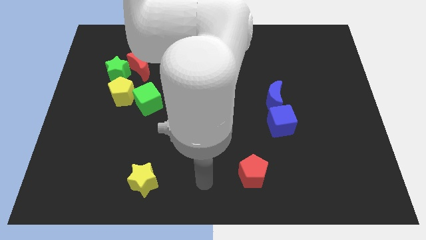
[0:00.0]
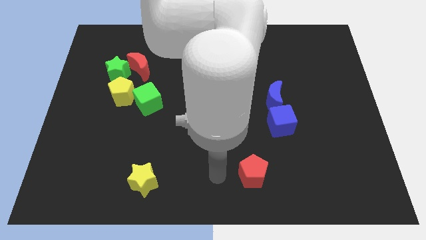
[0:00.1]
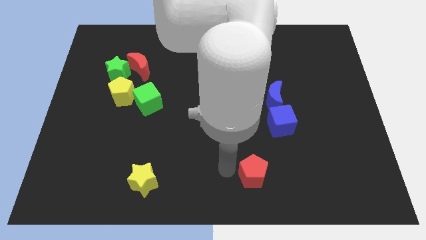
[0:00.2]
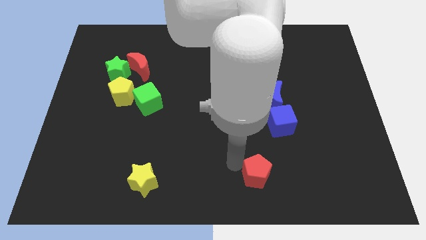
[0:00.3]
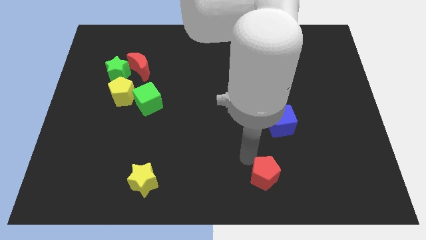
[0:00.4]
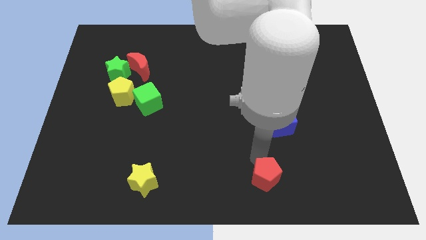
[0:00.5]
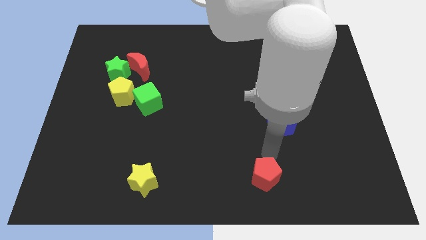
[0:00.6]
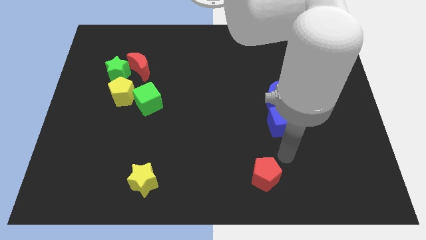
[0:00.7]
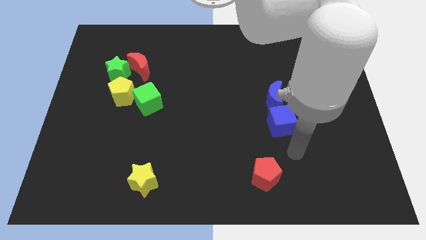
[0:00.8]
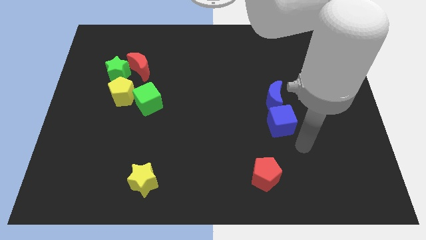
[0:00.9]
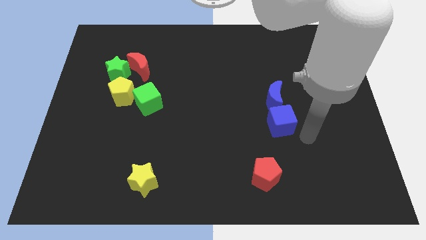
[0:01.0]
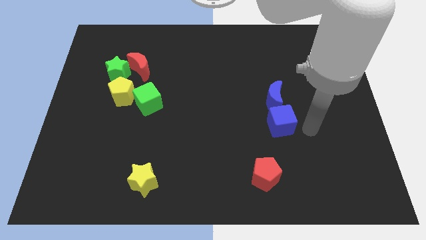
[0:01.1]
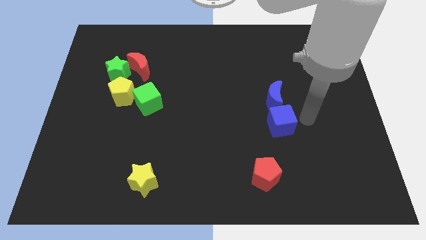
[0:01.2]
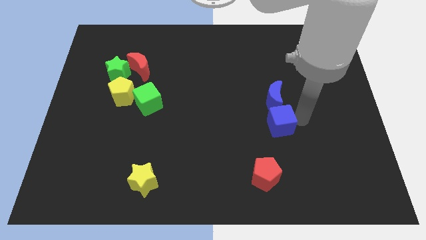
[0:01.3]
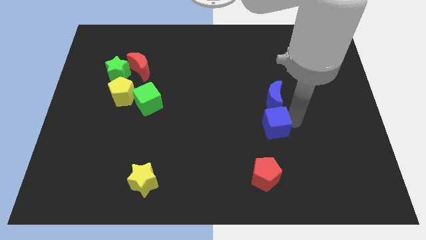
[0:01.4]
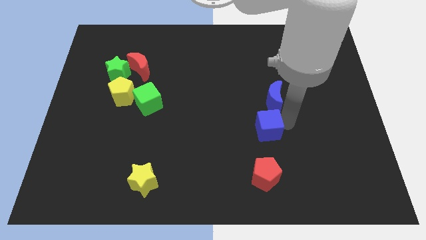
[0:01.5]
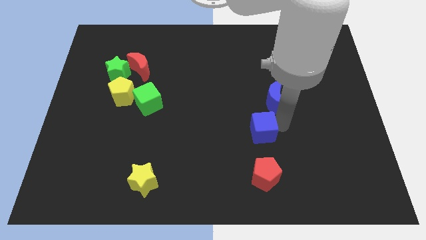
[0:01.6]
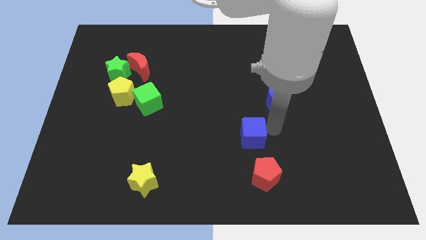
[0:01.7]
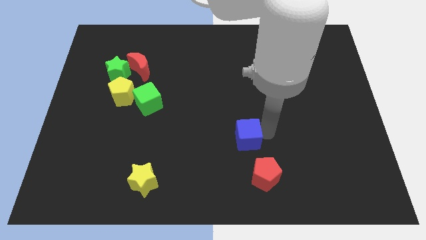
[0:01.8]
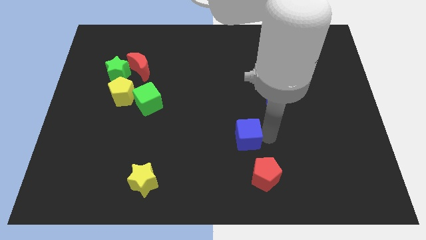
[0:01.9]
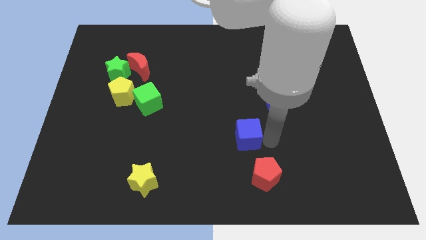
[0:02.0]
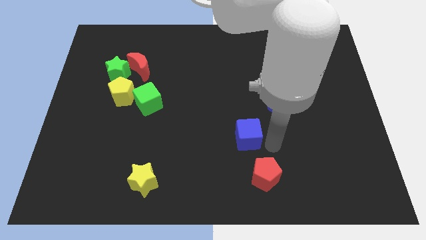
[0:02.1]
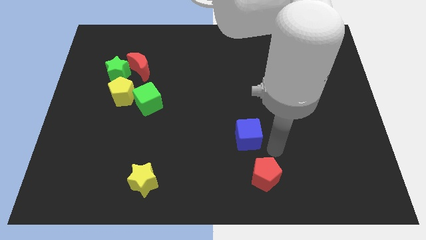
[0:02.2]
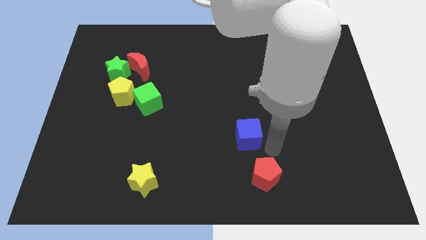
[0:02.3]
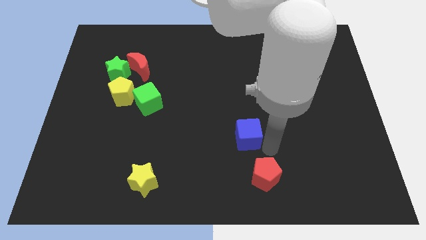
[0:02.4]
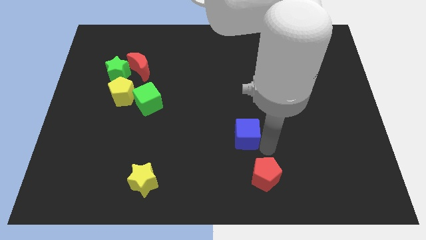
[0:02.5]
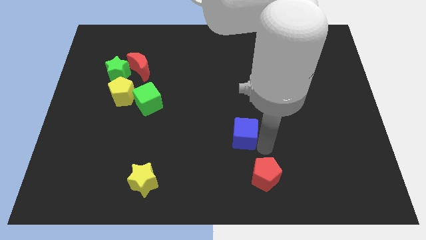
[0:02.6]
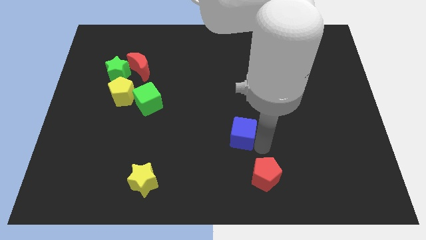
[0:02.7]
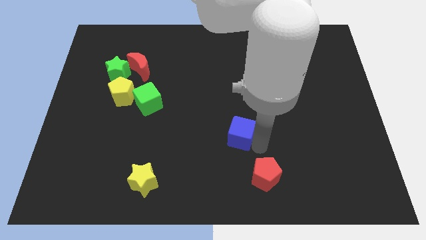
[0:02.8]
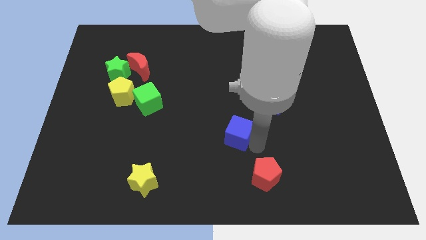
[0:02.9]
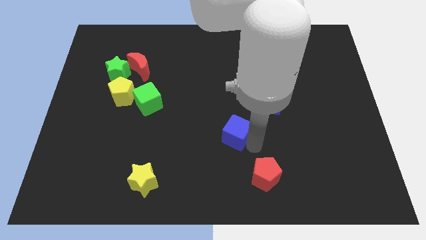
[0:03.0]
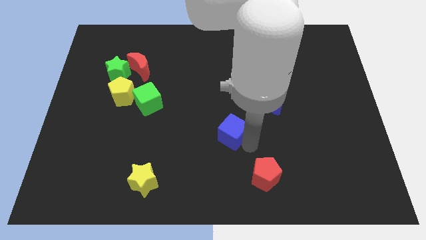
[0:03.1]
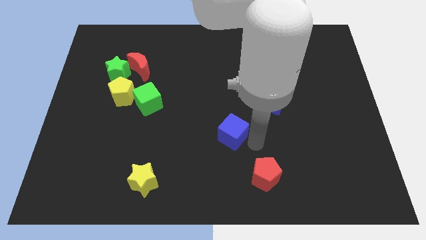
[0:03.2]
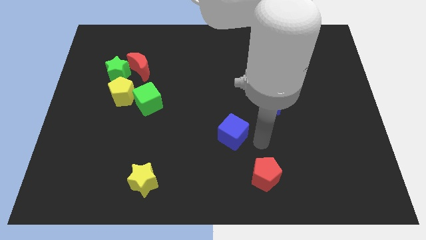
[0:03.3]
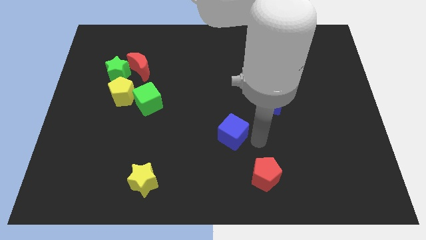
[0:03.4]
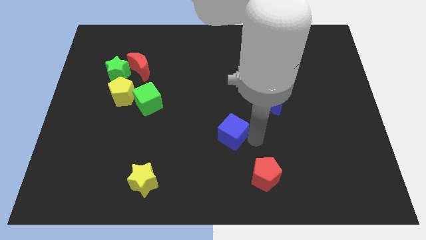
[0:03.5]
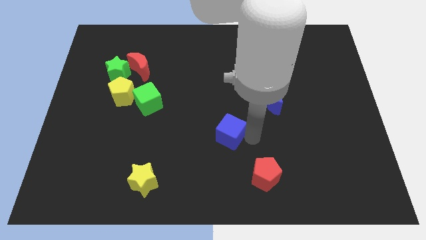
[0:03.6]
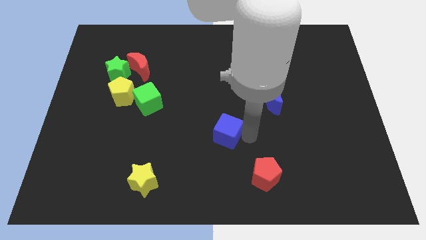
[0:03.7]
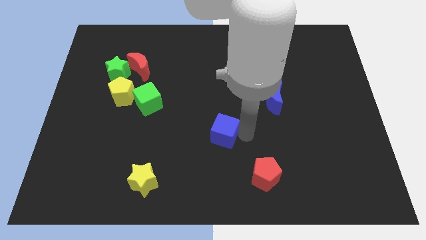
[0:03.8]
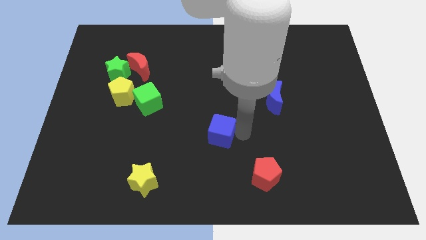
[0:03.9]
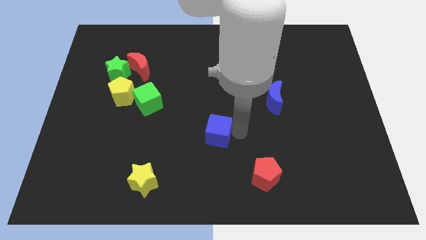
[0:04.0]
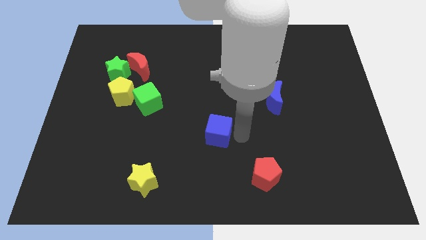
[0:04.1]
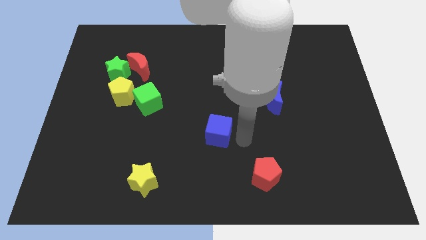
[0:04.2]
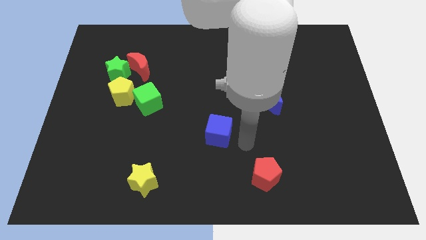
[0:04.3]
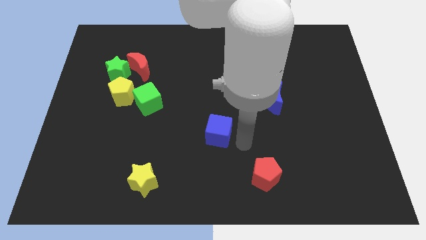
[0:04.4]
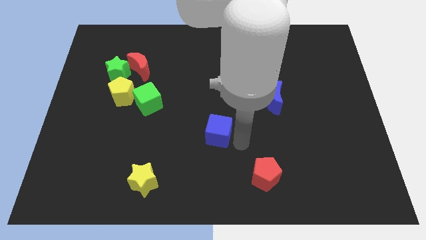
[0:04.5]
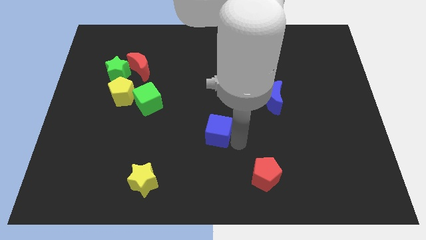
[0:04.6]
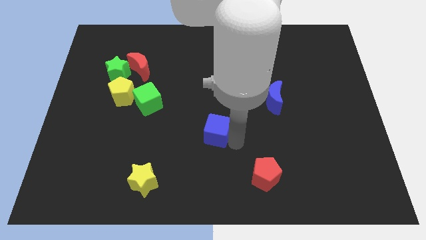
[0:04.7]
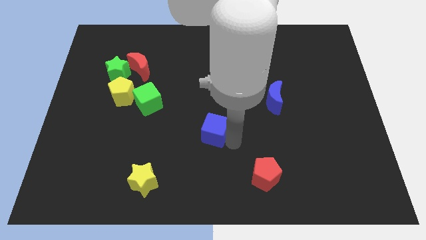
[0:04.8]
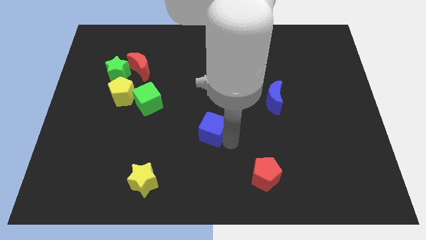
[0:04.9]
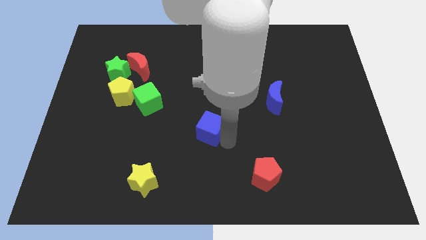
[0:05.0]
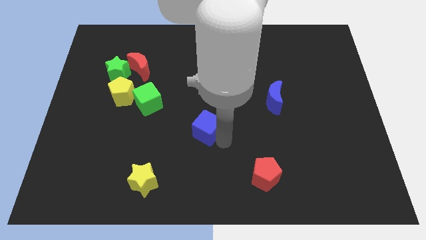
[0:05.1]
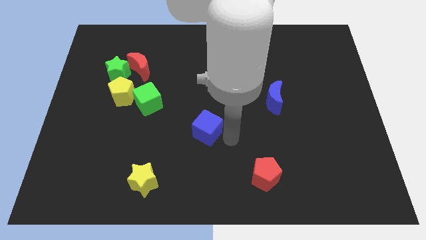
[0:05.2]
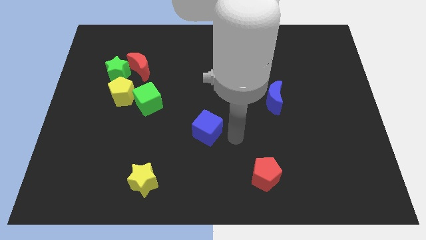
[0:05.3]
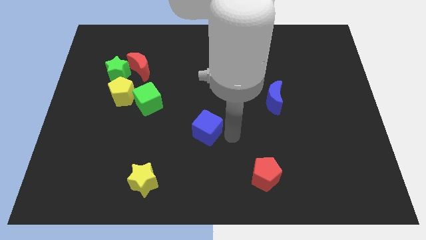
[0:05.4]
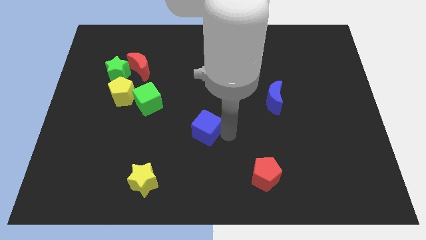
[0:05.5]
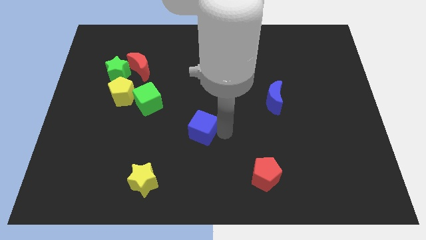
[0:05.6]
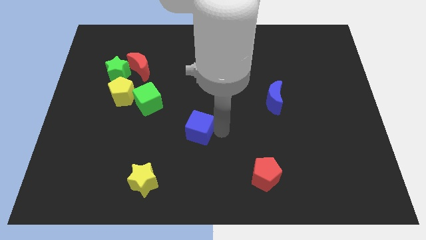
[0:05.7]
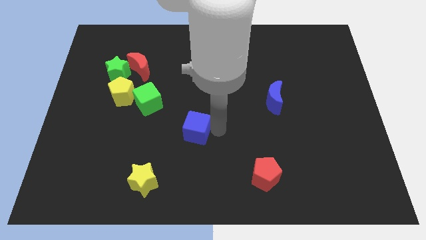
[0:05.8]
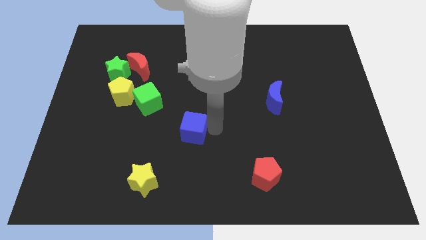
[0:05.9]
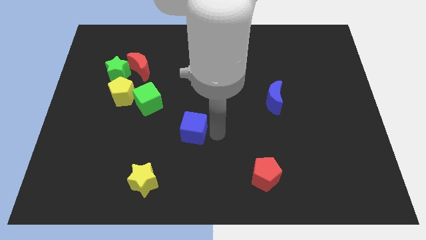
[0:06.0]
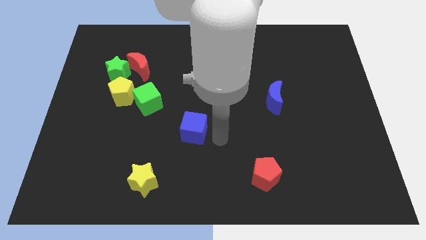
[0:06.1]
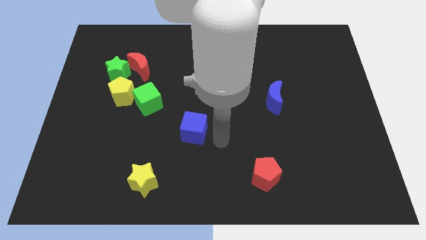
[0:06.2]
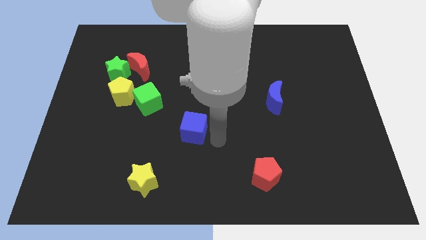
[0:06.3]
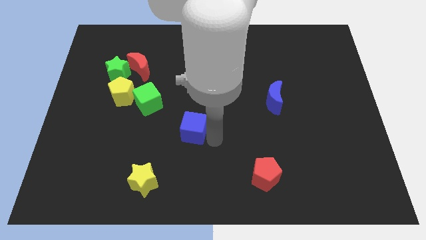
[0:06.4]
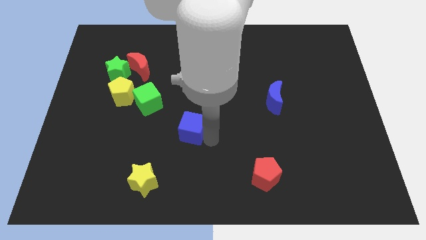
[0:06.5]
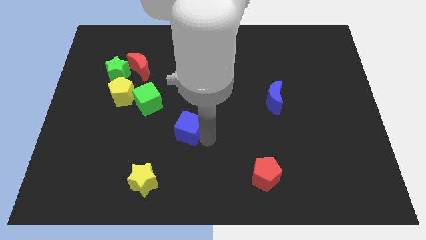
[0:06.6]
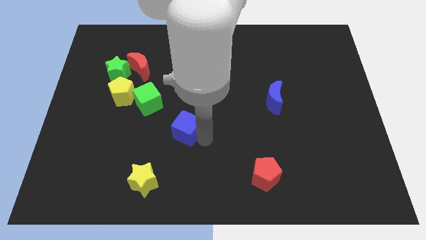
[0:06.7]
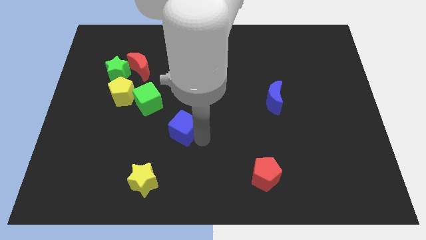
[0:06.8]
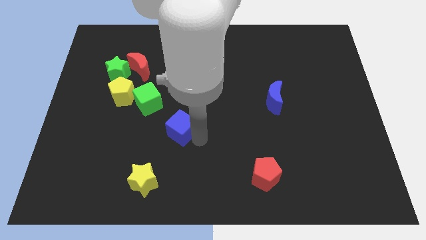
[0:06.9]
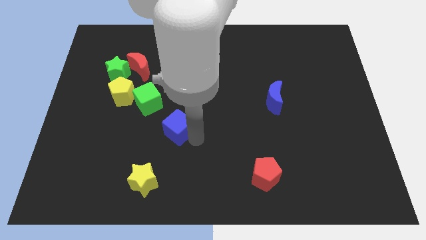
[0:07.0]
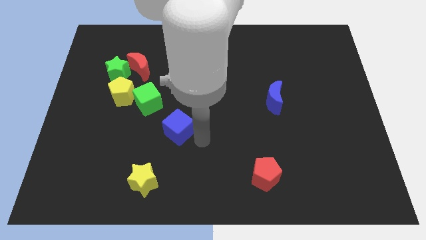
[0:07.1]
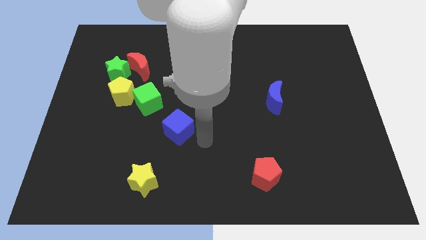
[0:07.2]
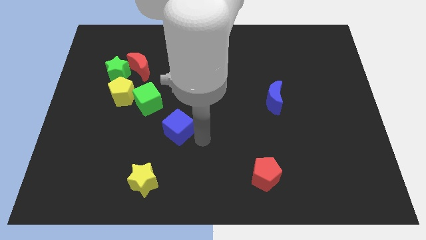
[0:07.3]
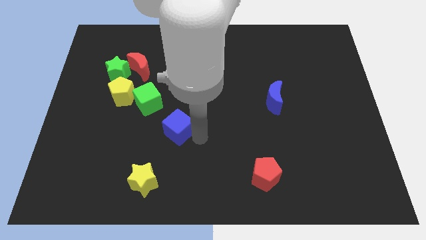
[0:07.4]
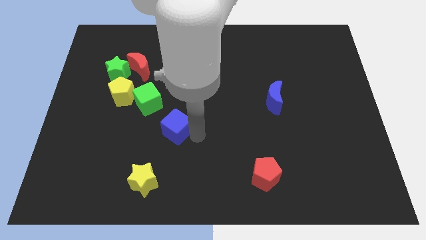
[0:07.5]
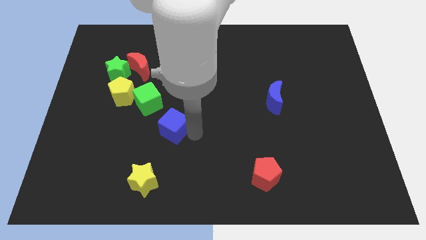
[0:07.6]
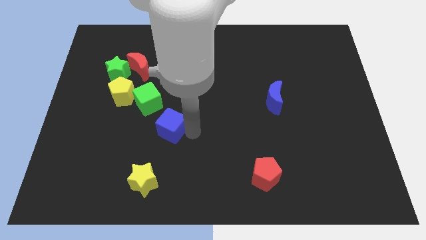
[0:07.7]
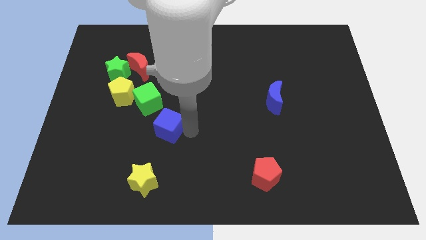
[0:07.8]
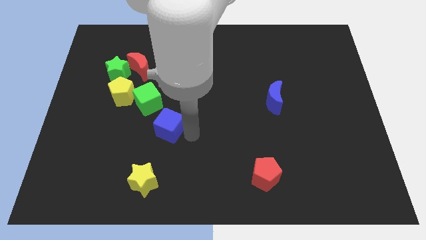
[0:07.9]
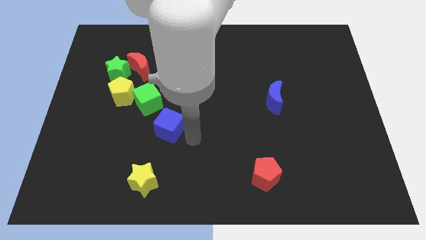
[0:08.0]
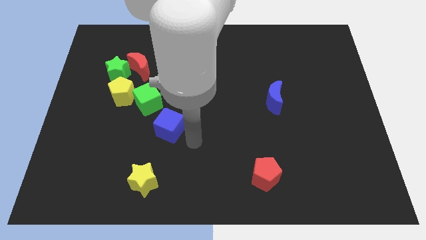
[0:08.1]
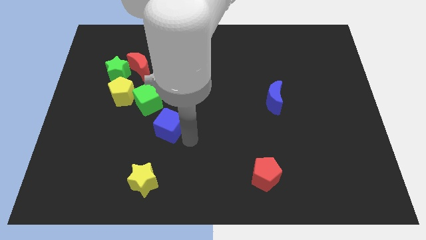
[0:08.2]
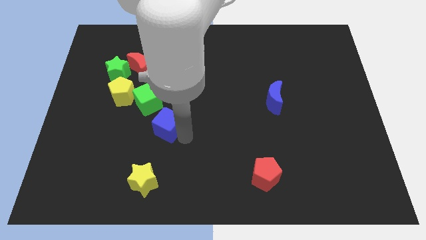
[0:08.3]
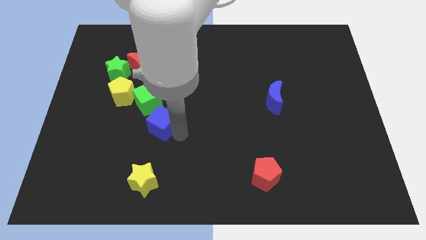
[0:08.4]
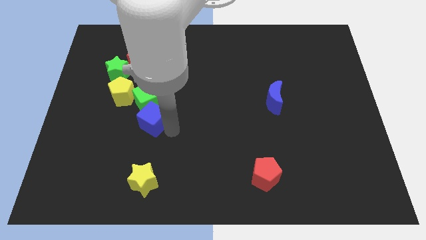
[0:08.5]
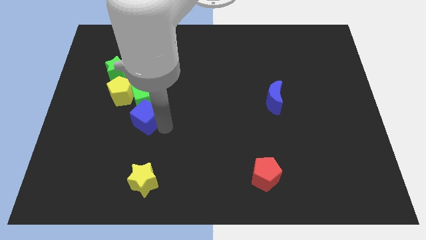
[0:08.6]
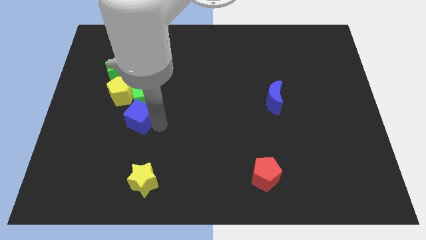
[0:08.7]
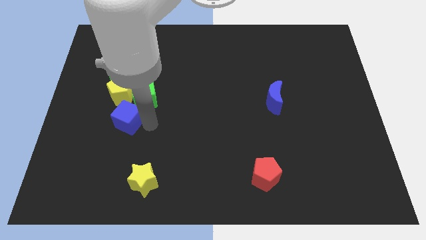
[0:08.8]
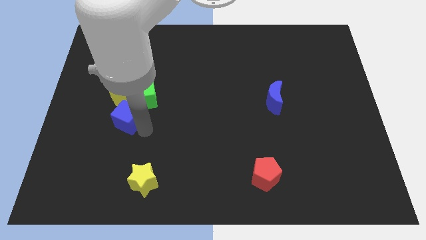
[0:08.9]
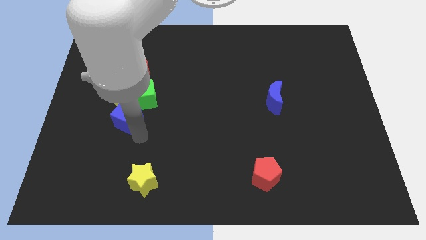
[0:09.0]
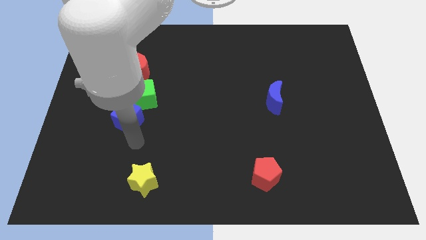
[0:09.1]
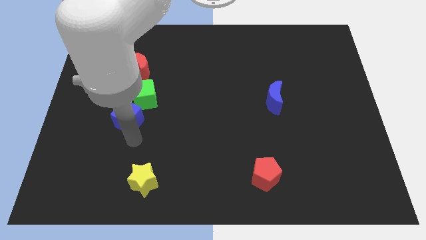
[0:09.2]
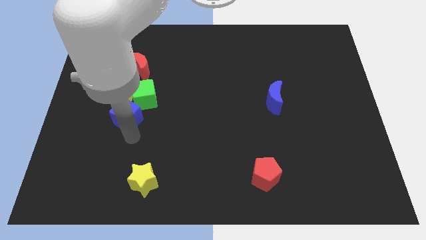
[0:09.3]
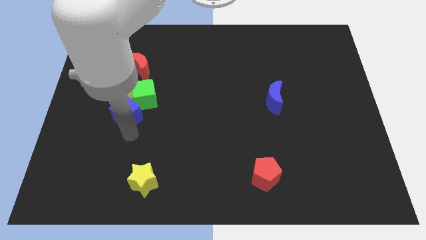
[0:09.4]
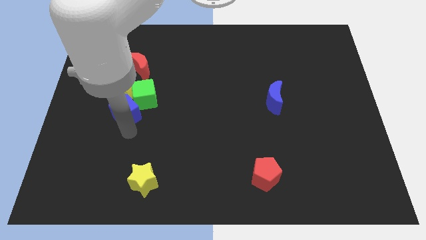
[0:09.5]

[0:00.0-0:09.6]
move the blue cube towards the yellow pentagon
